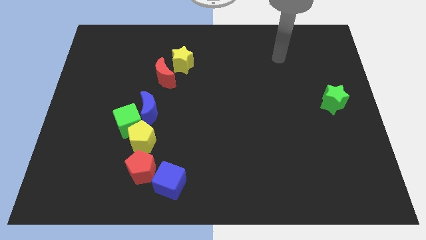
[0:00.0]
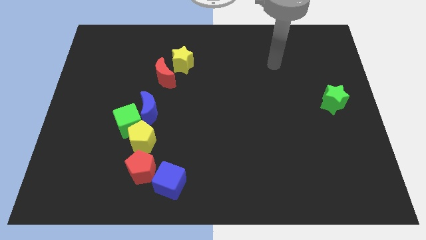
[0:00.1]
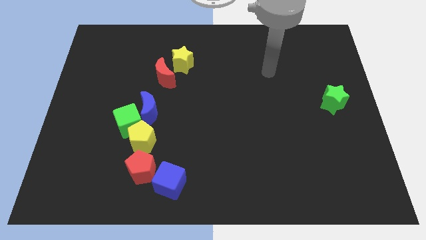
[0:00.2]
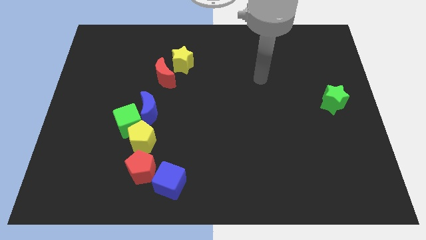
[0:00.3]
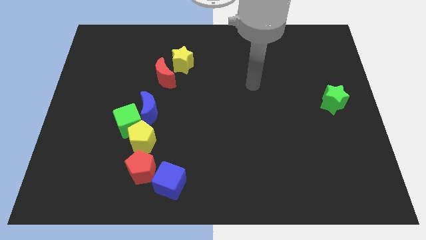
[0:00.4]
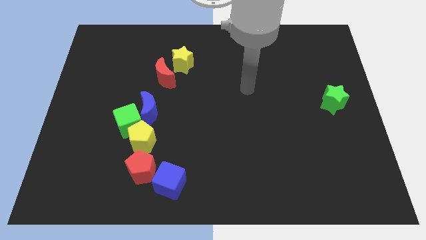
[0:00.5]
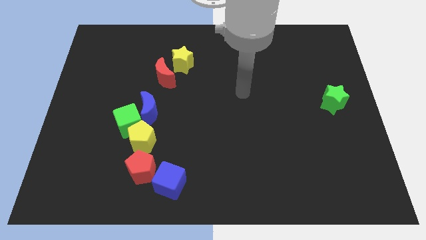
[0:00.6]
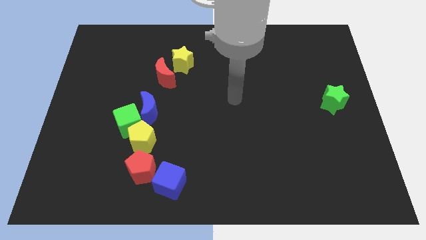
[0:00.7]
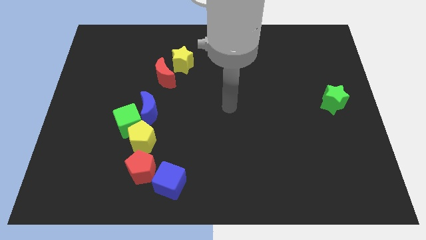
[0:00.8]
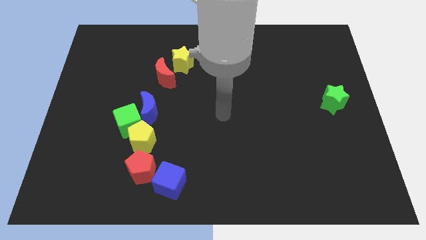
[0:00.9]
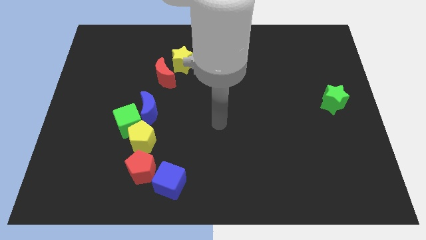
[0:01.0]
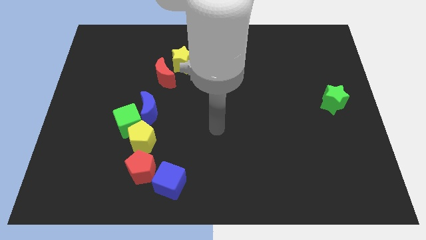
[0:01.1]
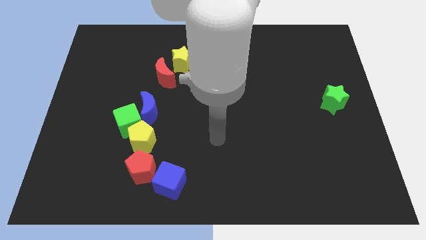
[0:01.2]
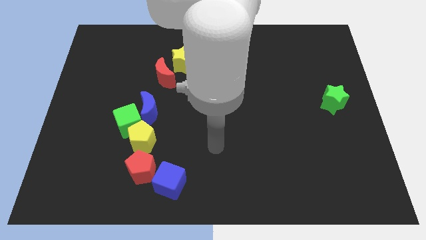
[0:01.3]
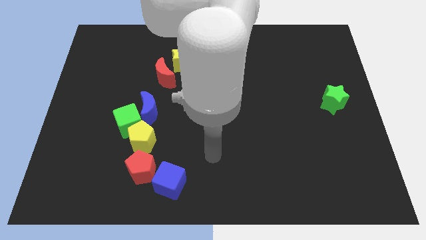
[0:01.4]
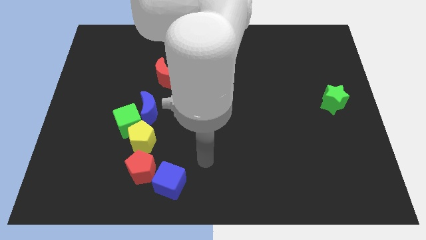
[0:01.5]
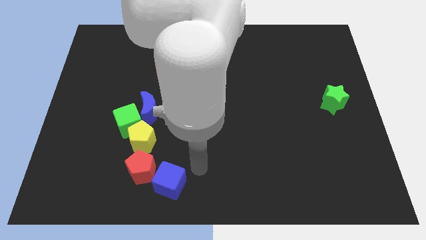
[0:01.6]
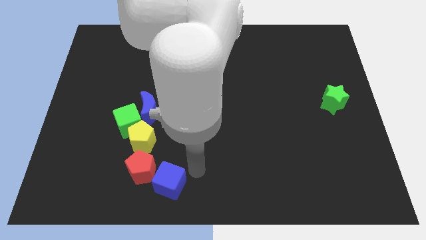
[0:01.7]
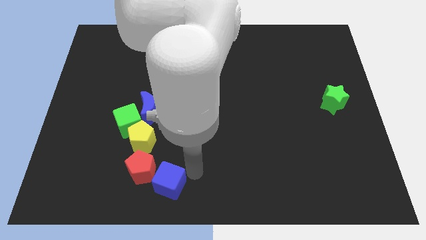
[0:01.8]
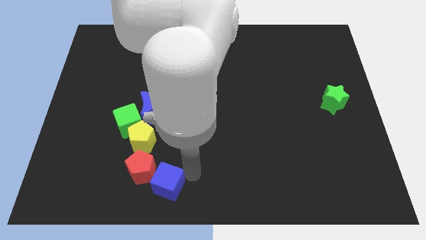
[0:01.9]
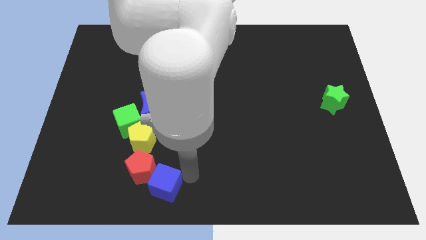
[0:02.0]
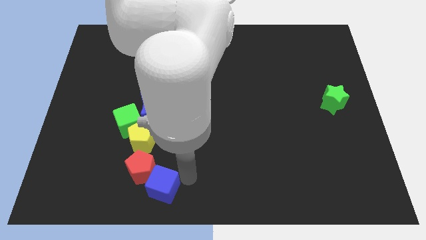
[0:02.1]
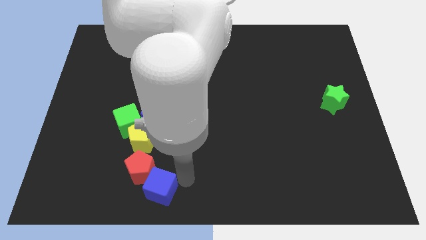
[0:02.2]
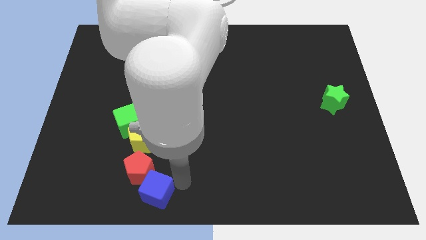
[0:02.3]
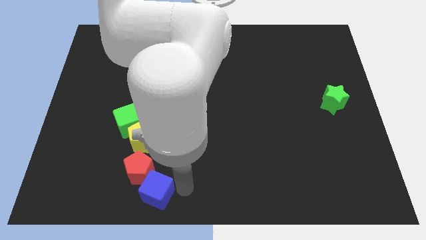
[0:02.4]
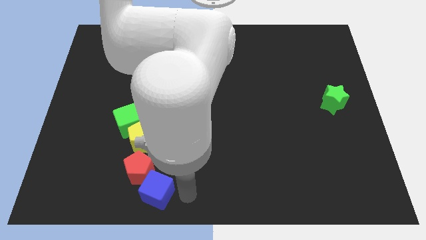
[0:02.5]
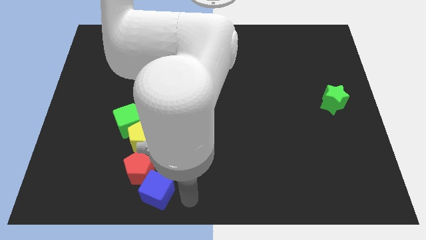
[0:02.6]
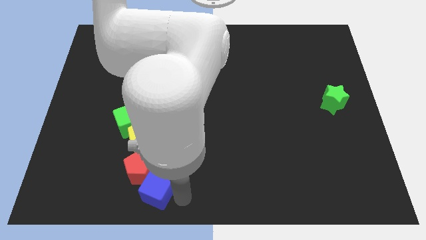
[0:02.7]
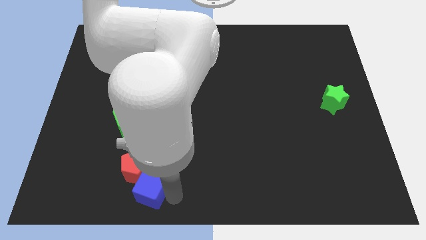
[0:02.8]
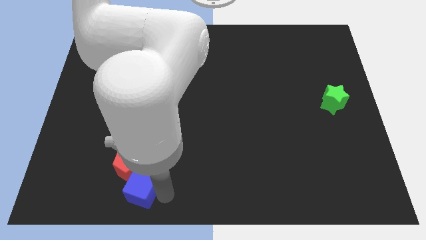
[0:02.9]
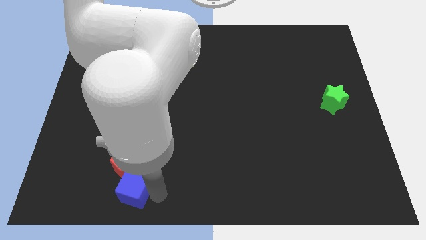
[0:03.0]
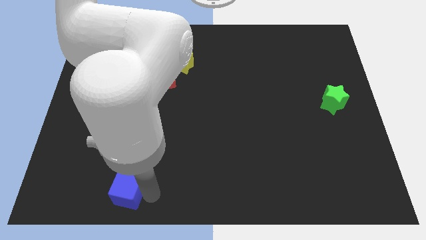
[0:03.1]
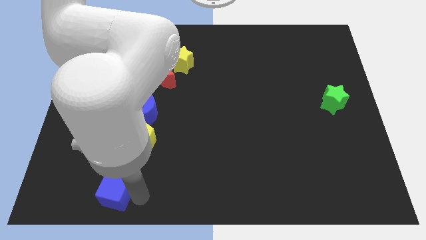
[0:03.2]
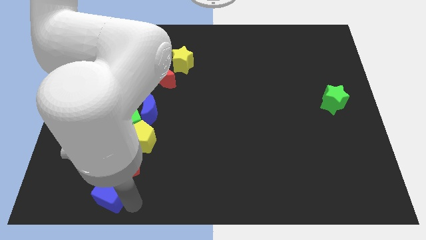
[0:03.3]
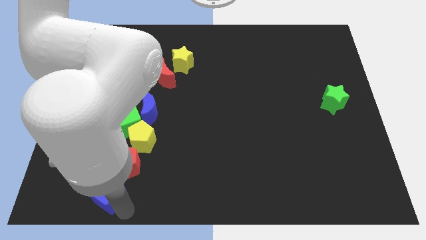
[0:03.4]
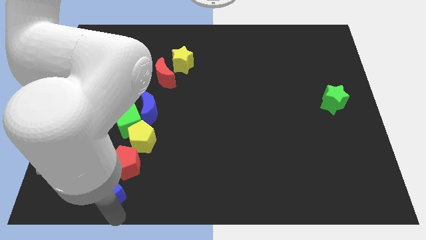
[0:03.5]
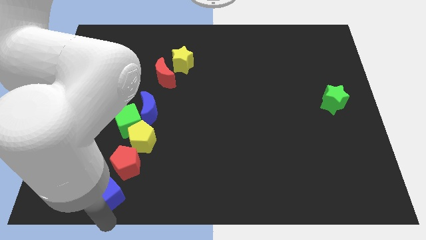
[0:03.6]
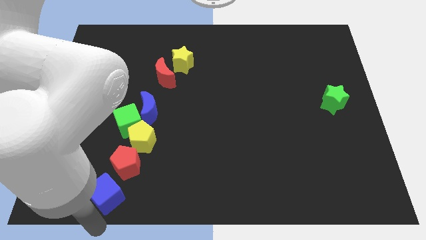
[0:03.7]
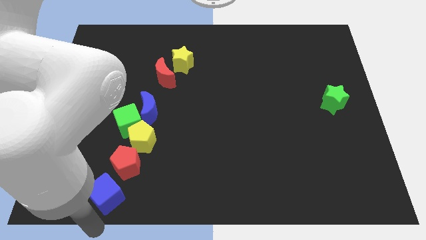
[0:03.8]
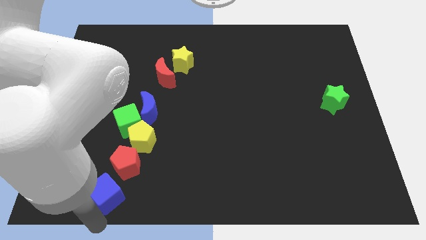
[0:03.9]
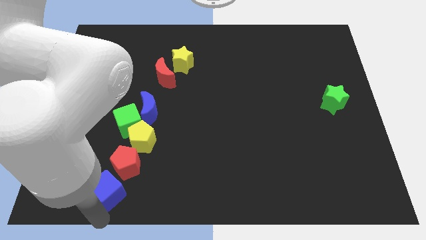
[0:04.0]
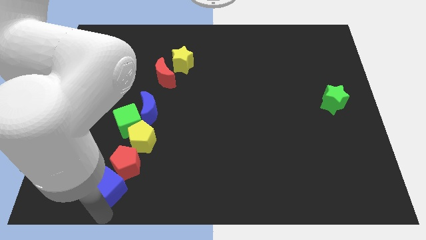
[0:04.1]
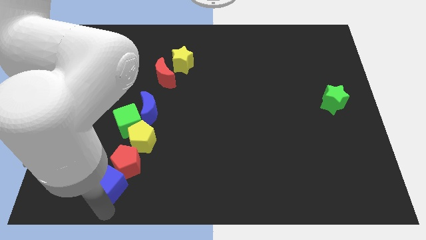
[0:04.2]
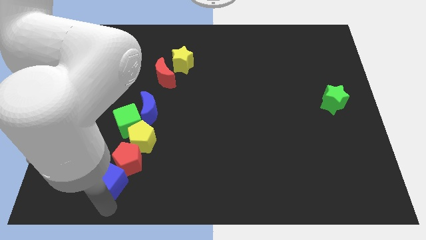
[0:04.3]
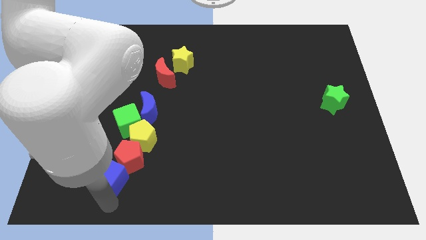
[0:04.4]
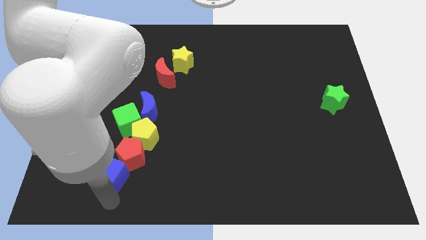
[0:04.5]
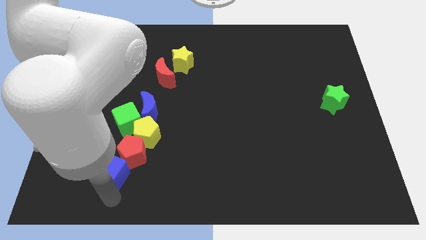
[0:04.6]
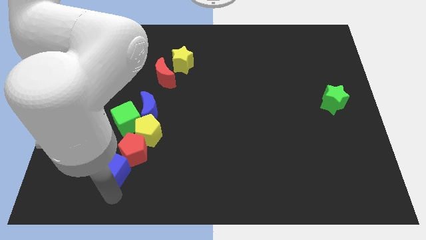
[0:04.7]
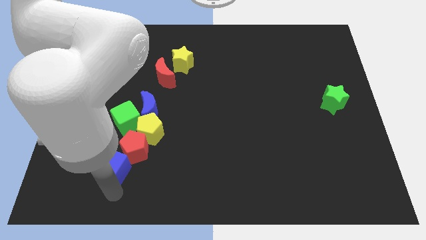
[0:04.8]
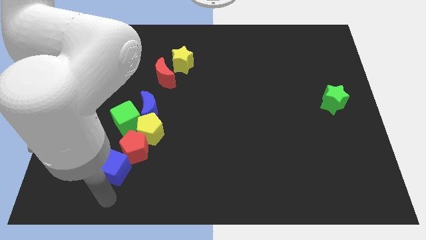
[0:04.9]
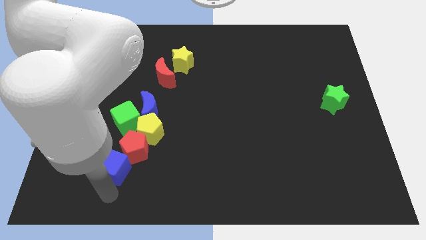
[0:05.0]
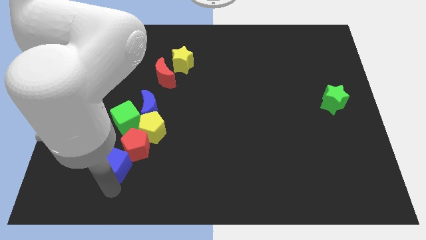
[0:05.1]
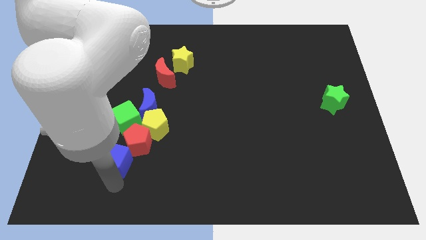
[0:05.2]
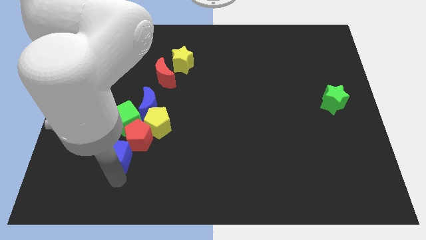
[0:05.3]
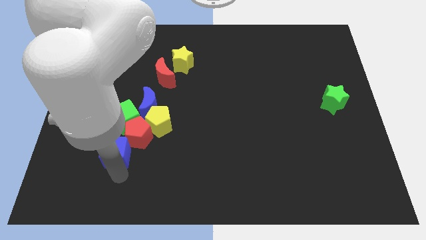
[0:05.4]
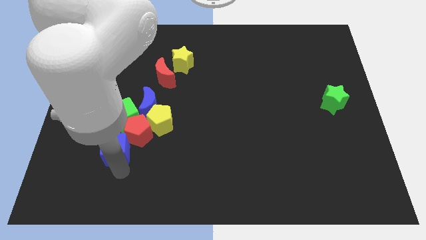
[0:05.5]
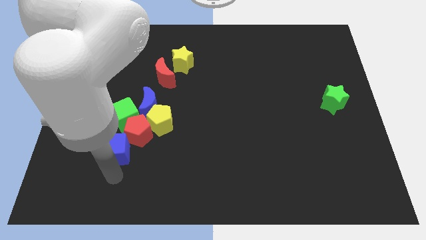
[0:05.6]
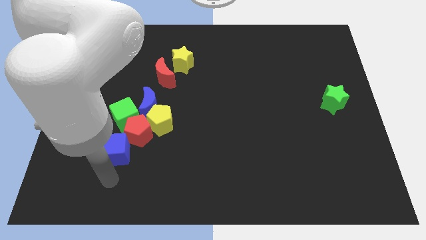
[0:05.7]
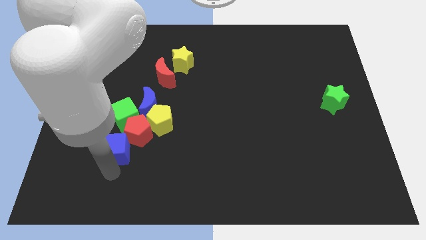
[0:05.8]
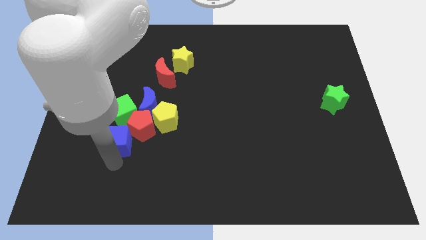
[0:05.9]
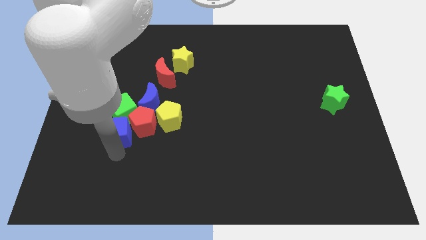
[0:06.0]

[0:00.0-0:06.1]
move the blue cube close to the green cube

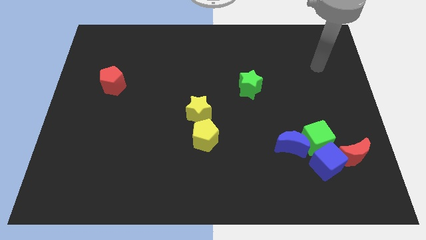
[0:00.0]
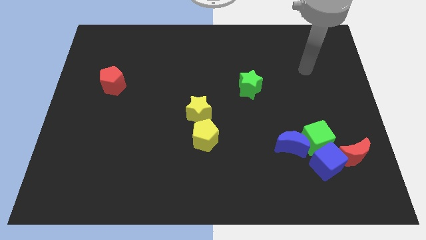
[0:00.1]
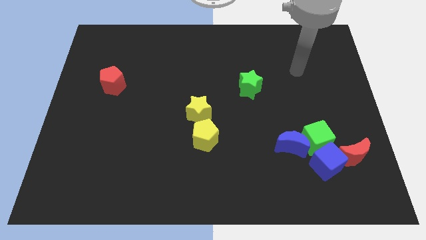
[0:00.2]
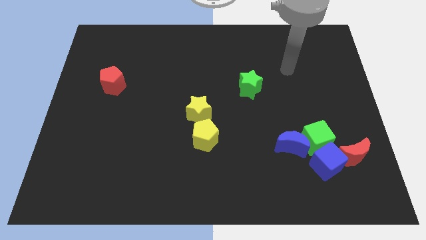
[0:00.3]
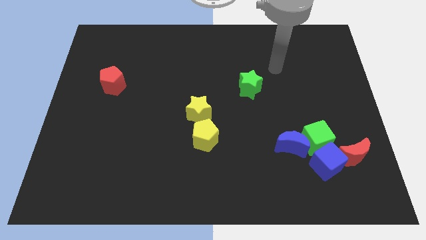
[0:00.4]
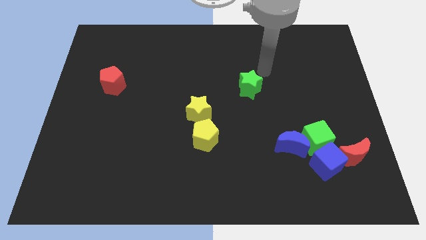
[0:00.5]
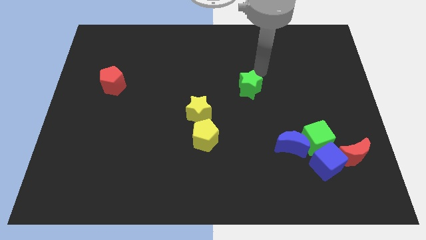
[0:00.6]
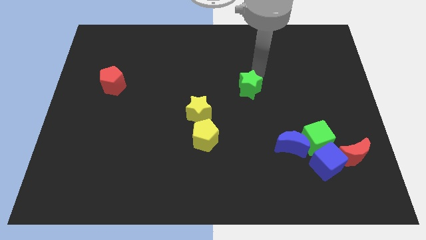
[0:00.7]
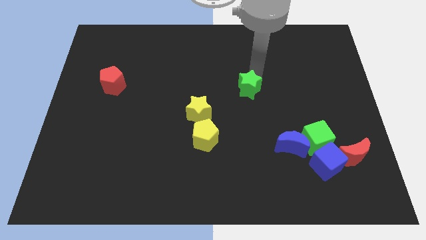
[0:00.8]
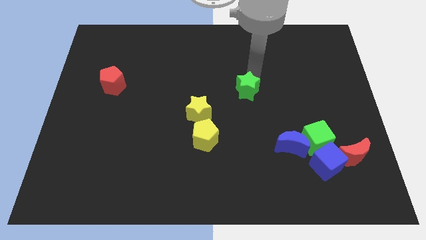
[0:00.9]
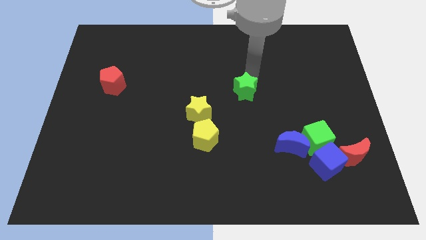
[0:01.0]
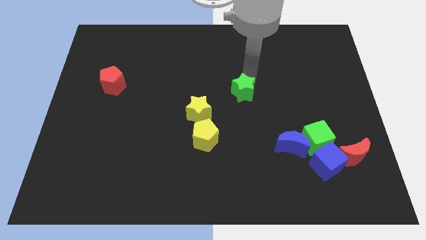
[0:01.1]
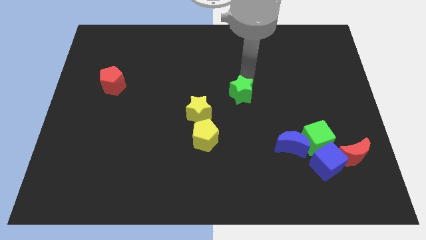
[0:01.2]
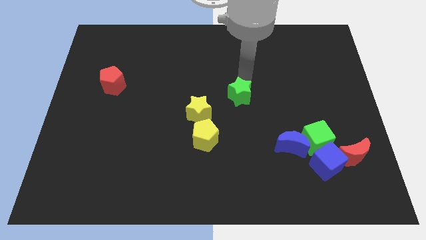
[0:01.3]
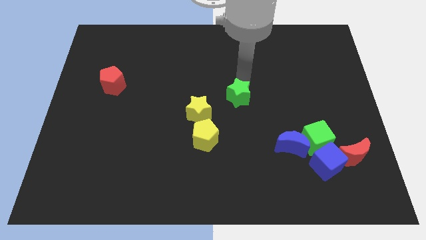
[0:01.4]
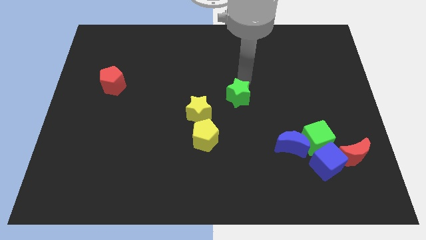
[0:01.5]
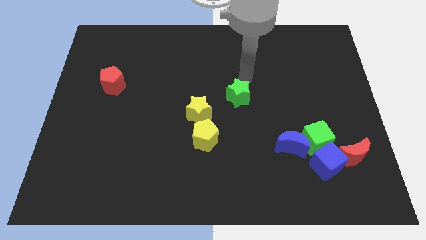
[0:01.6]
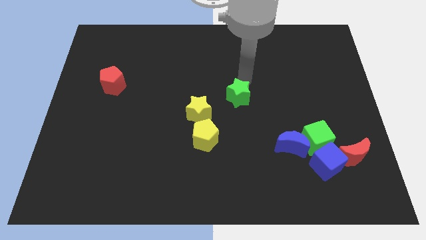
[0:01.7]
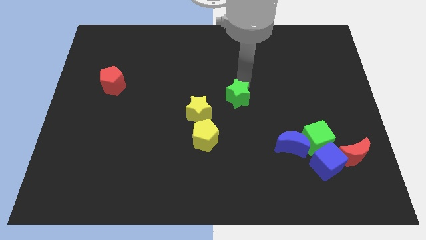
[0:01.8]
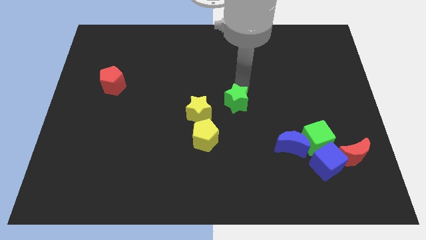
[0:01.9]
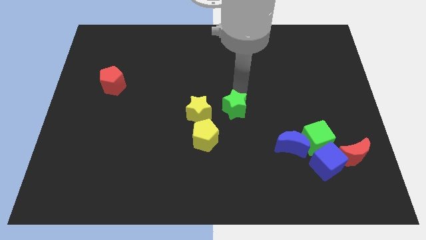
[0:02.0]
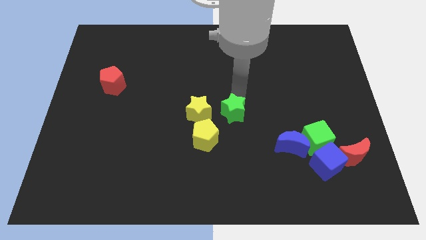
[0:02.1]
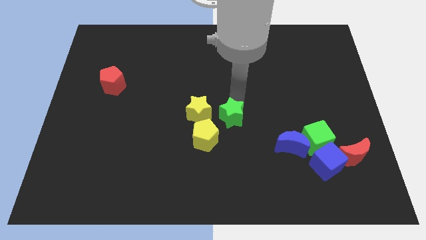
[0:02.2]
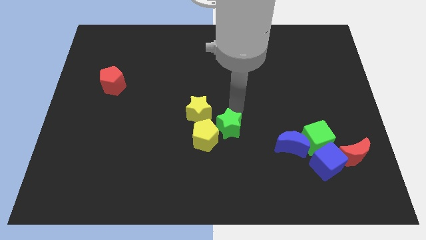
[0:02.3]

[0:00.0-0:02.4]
move the green star next to the yellow pentagon
